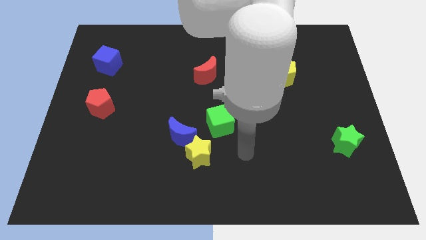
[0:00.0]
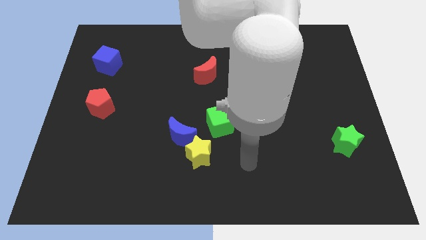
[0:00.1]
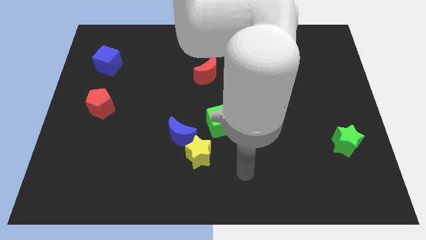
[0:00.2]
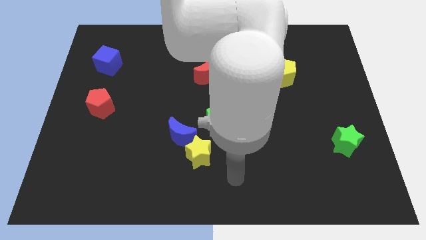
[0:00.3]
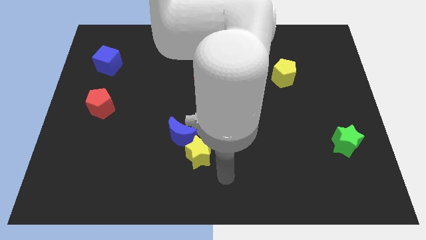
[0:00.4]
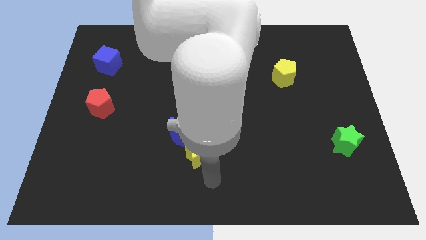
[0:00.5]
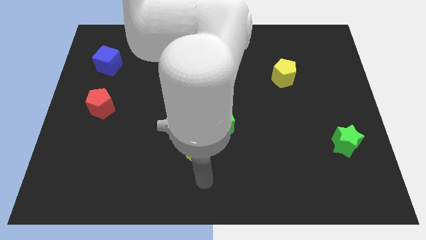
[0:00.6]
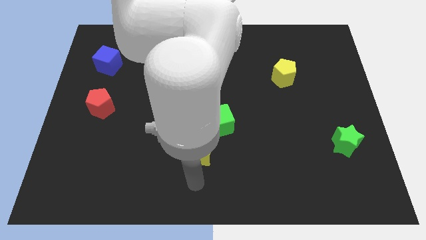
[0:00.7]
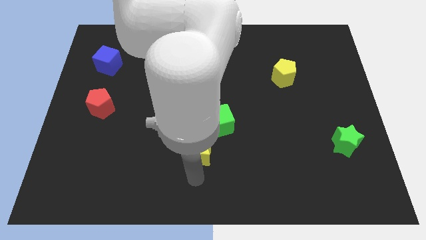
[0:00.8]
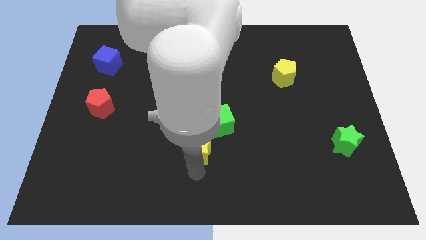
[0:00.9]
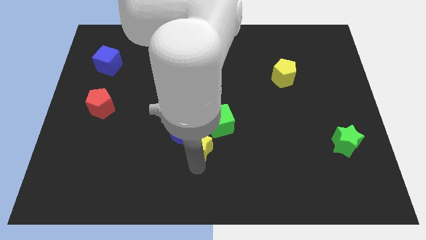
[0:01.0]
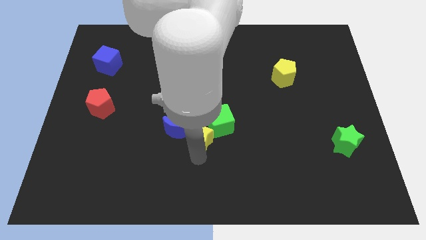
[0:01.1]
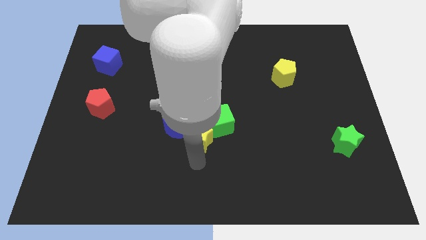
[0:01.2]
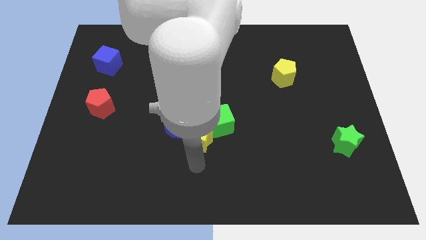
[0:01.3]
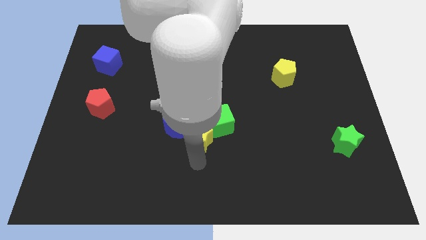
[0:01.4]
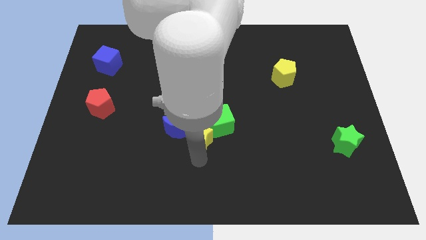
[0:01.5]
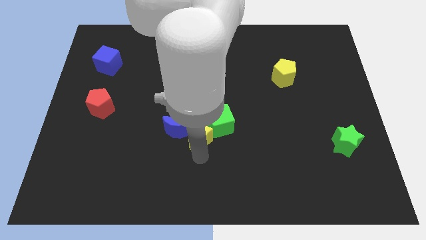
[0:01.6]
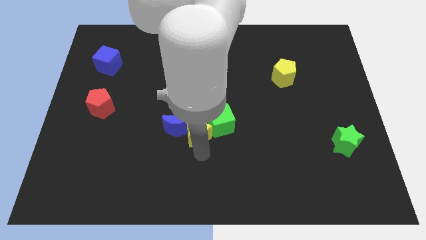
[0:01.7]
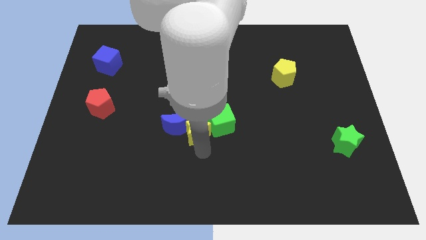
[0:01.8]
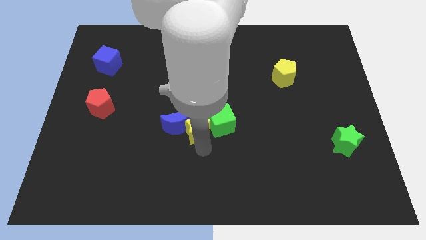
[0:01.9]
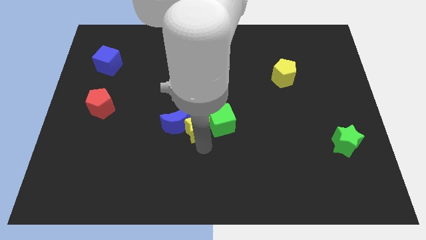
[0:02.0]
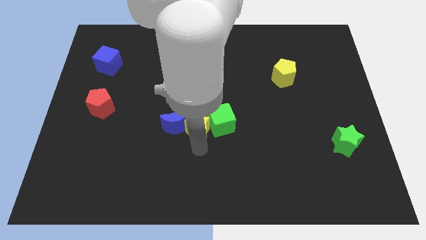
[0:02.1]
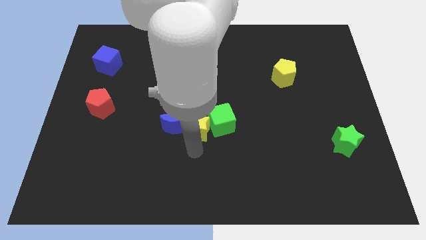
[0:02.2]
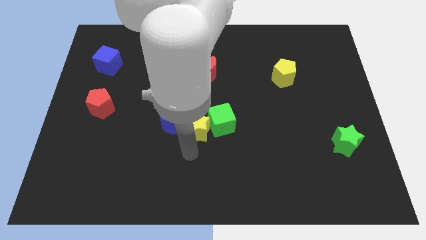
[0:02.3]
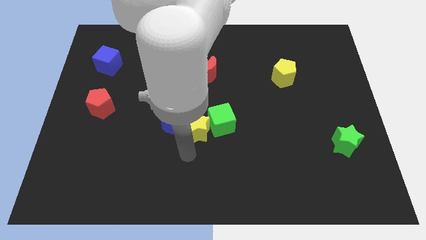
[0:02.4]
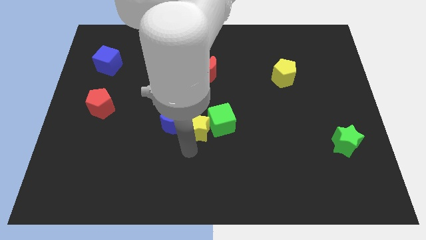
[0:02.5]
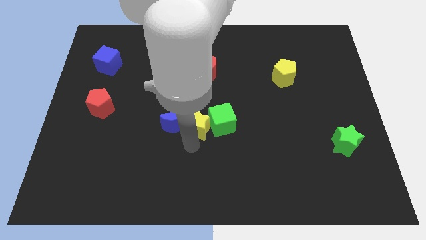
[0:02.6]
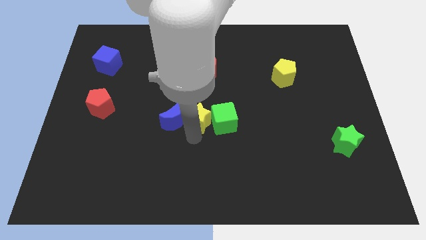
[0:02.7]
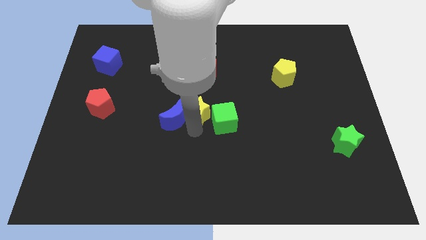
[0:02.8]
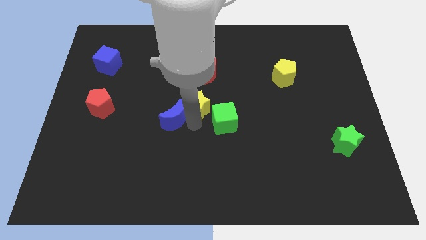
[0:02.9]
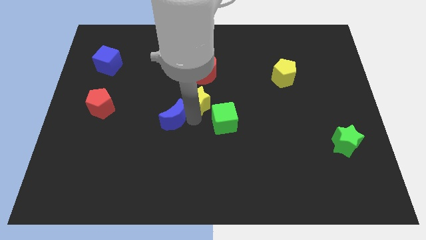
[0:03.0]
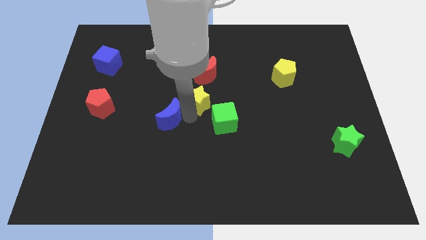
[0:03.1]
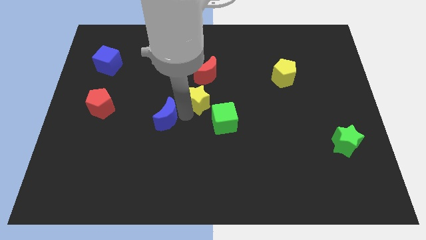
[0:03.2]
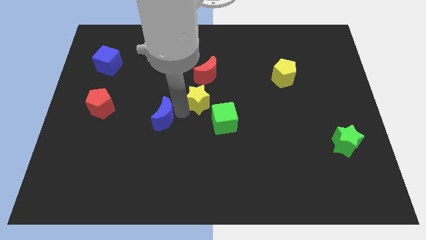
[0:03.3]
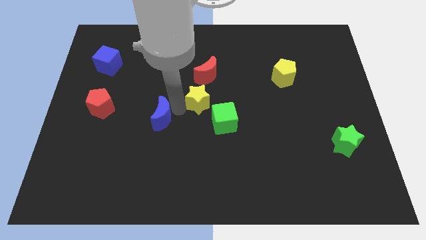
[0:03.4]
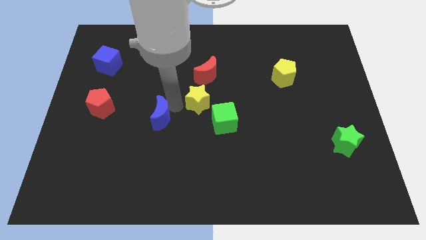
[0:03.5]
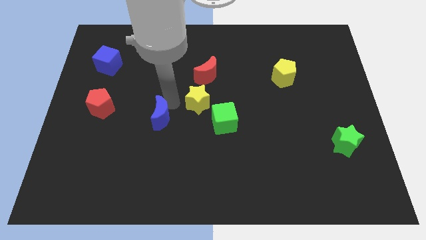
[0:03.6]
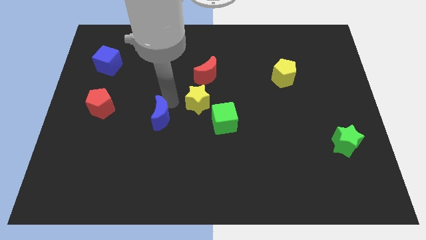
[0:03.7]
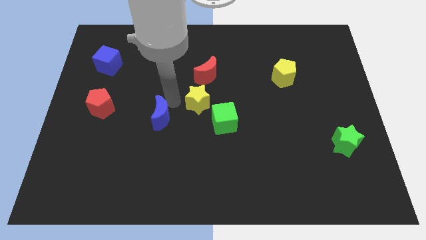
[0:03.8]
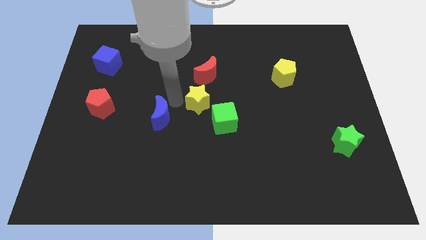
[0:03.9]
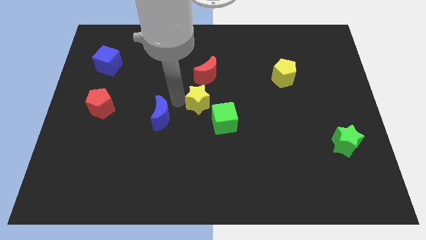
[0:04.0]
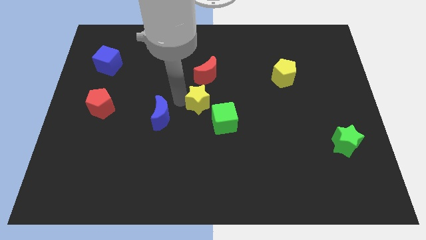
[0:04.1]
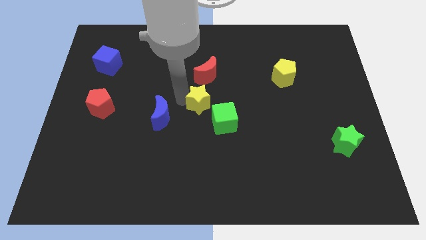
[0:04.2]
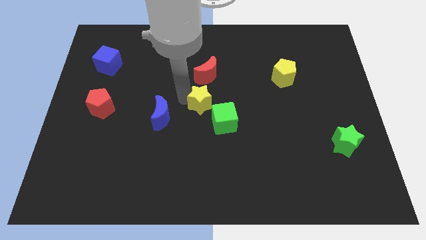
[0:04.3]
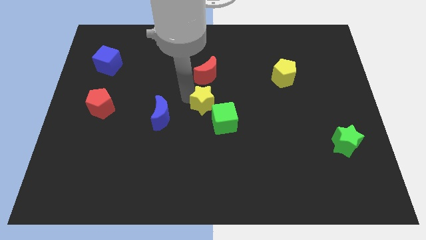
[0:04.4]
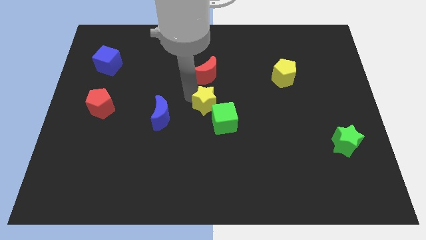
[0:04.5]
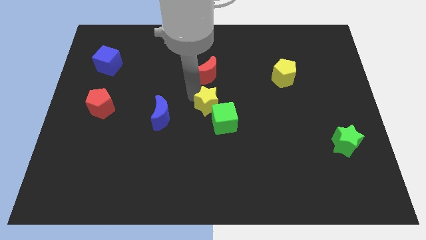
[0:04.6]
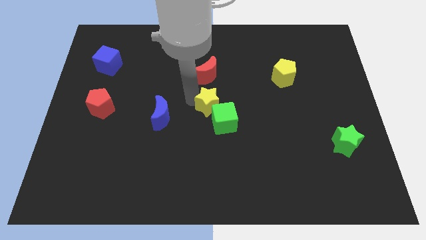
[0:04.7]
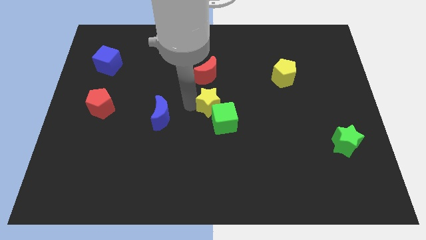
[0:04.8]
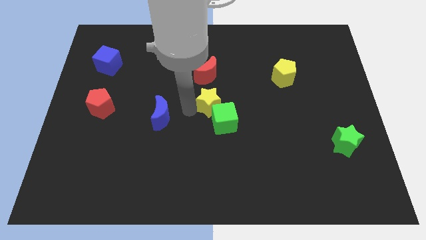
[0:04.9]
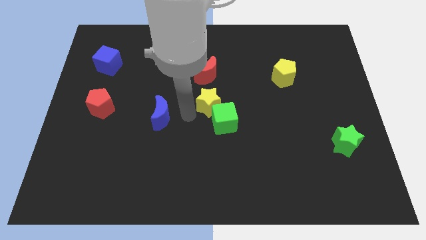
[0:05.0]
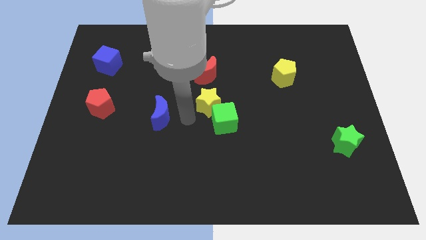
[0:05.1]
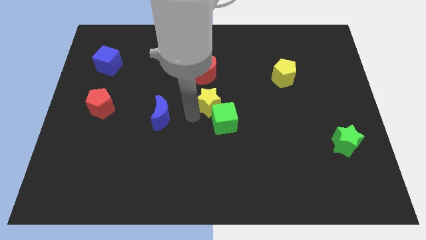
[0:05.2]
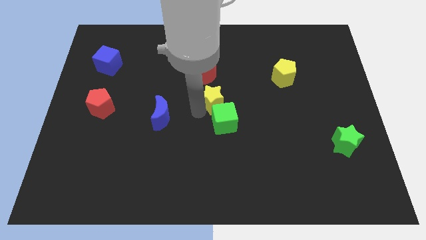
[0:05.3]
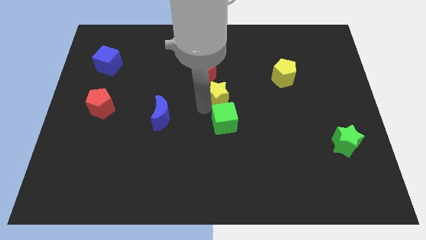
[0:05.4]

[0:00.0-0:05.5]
slide the yellow star diagonally down and to the right of the red moon

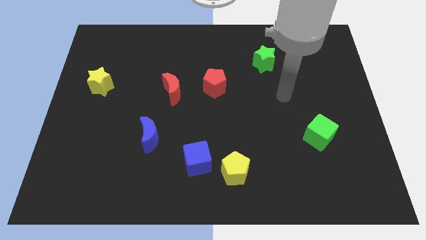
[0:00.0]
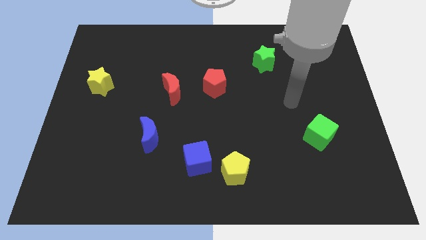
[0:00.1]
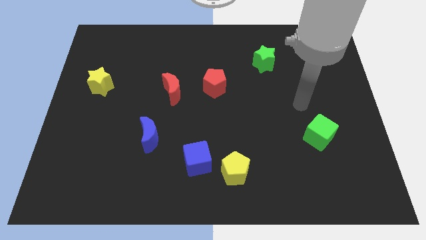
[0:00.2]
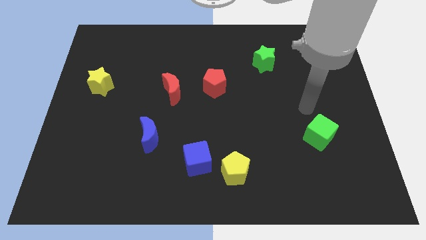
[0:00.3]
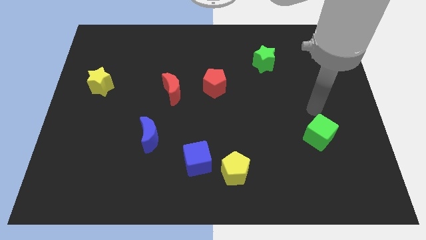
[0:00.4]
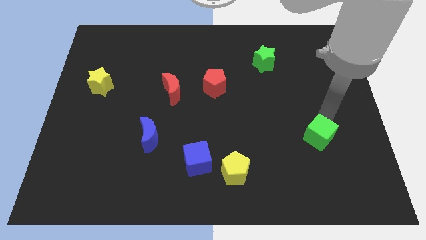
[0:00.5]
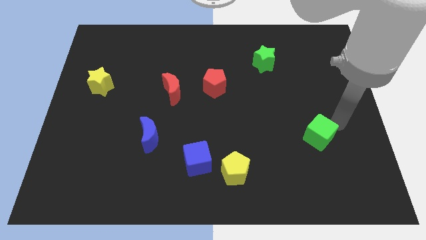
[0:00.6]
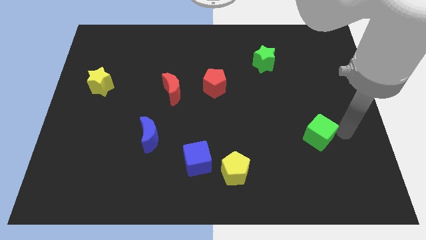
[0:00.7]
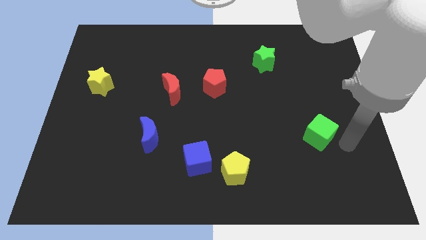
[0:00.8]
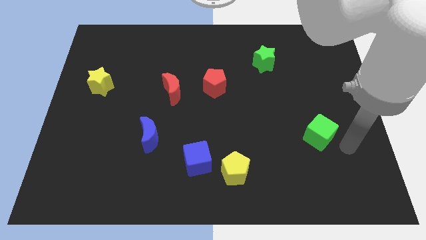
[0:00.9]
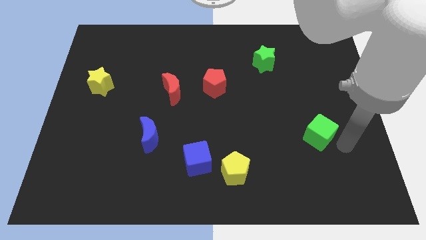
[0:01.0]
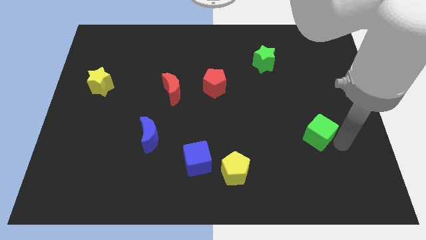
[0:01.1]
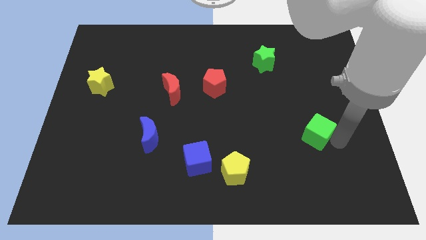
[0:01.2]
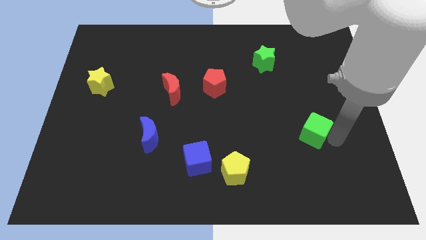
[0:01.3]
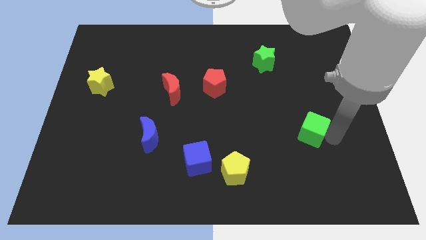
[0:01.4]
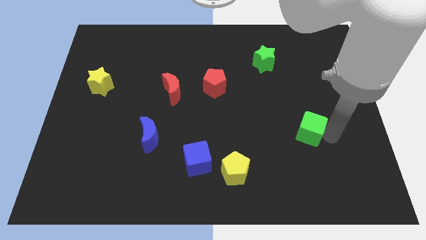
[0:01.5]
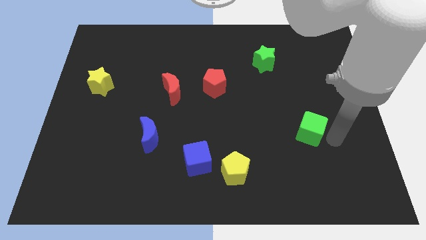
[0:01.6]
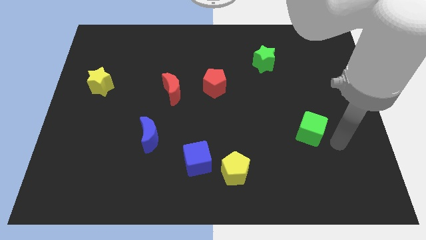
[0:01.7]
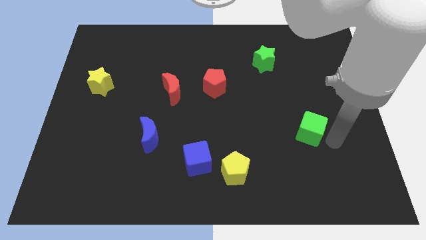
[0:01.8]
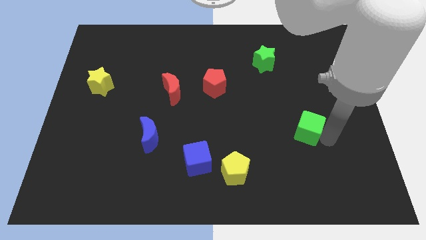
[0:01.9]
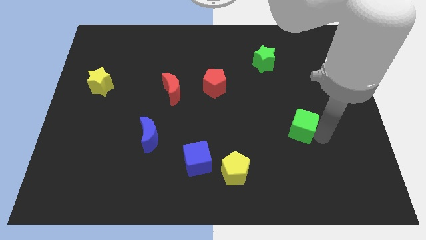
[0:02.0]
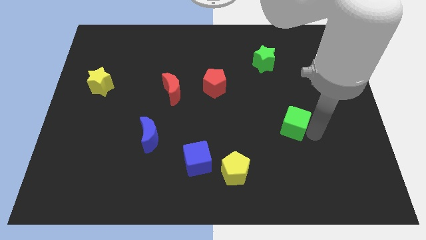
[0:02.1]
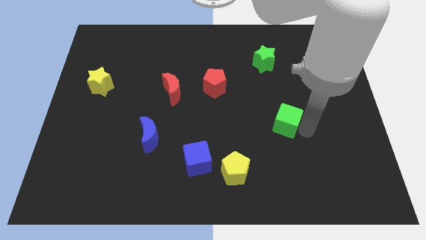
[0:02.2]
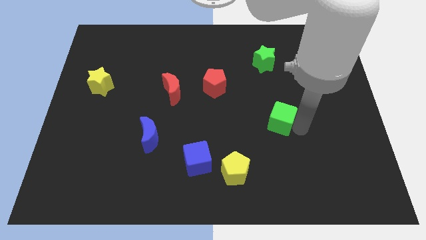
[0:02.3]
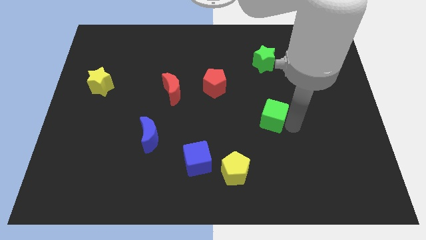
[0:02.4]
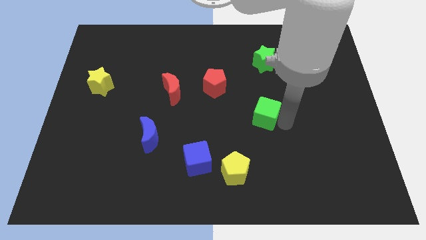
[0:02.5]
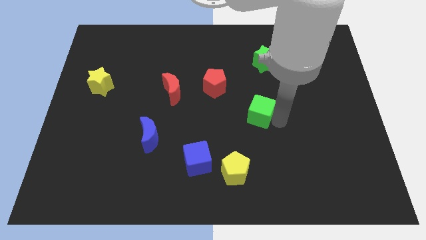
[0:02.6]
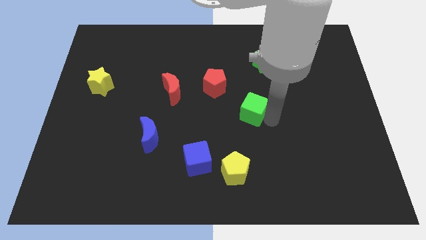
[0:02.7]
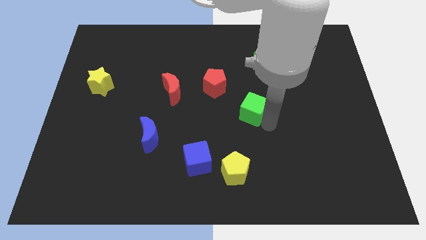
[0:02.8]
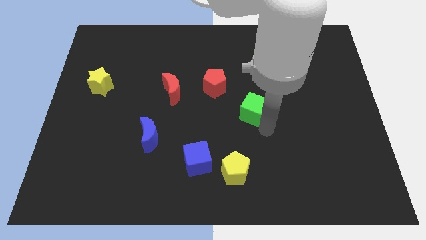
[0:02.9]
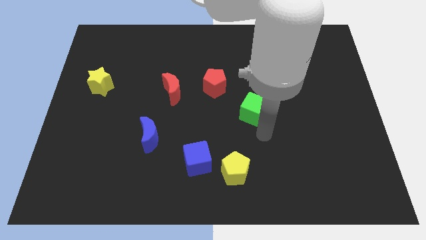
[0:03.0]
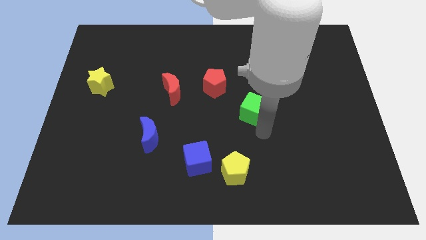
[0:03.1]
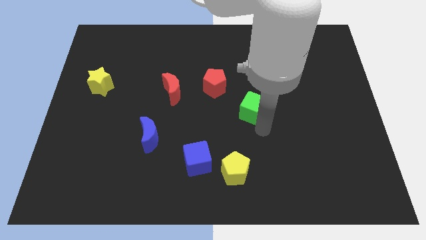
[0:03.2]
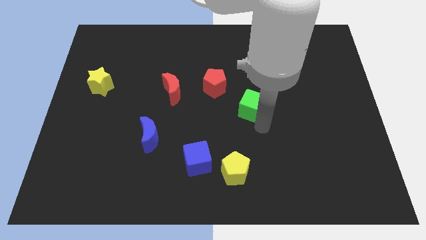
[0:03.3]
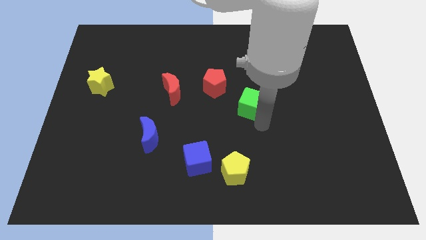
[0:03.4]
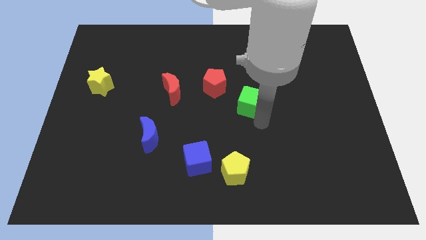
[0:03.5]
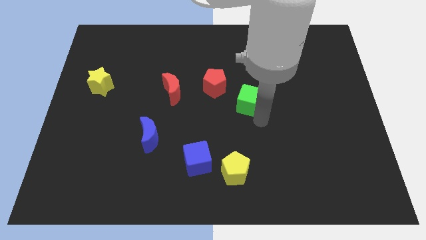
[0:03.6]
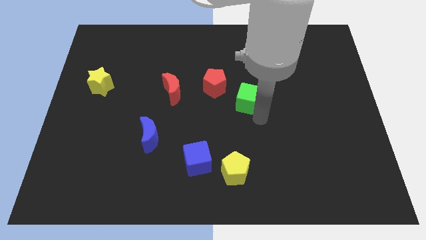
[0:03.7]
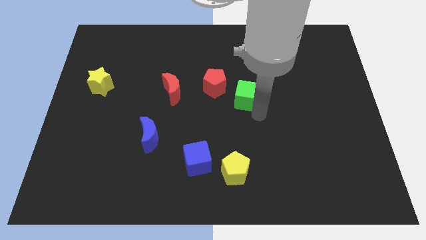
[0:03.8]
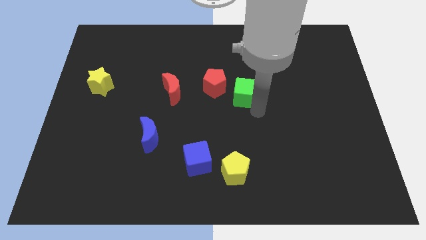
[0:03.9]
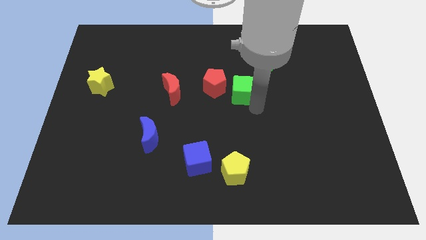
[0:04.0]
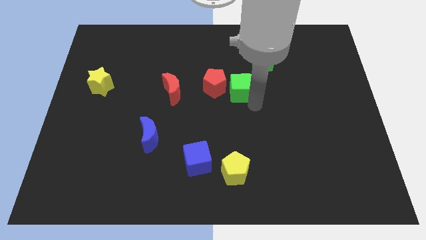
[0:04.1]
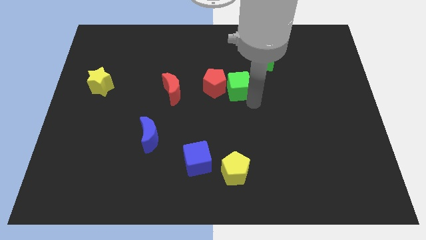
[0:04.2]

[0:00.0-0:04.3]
move the green cube diagonally up and to the right of the red pentagon
